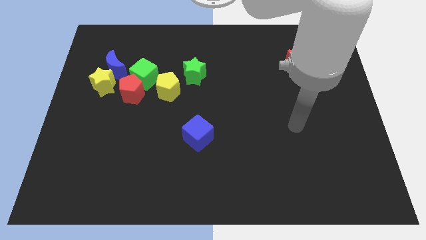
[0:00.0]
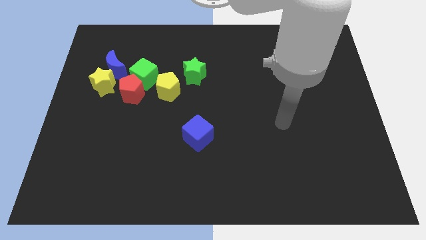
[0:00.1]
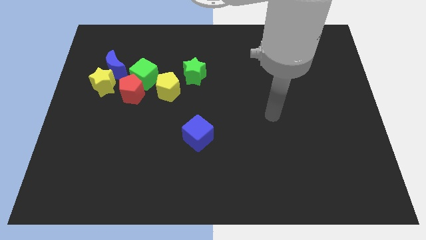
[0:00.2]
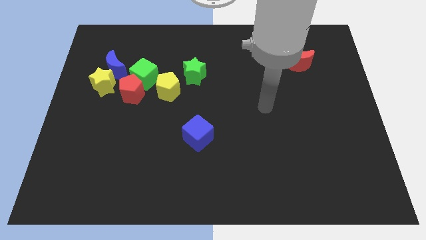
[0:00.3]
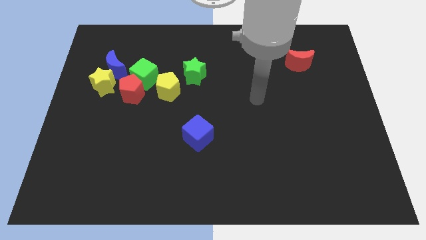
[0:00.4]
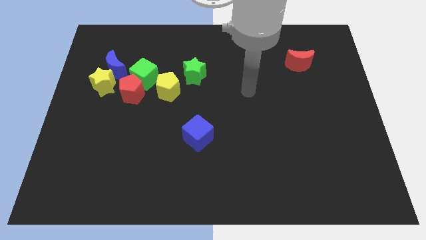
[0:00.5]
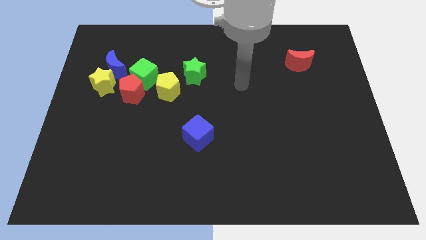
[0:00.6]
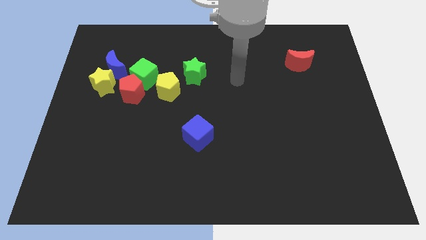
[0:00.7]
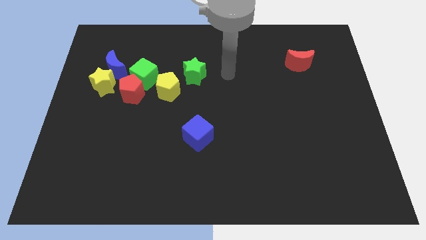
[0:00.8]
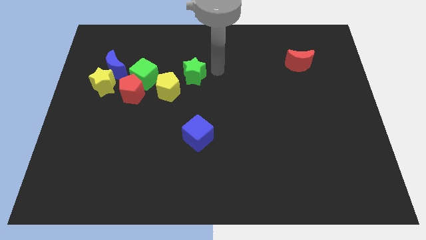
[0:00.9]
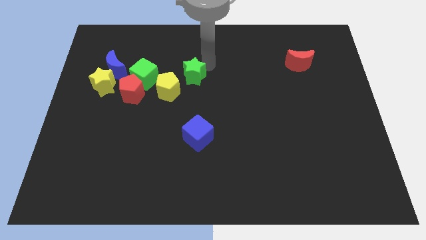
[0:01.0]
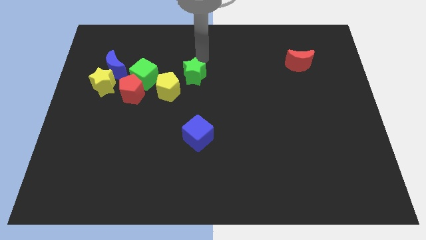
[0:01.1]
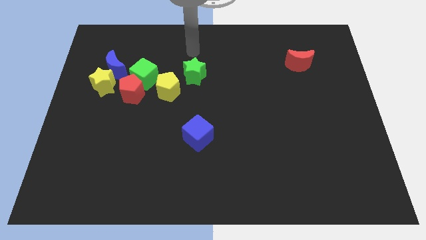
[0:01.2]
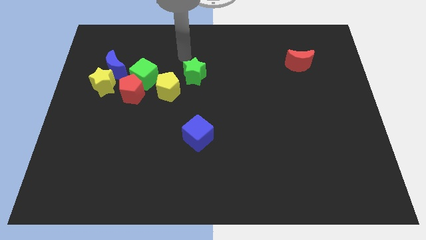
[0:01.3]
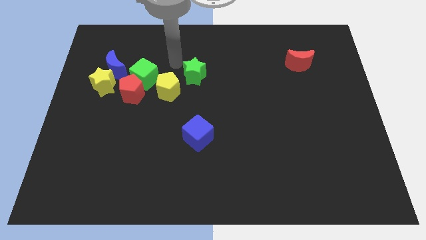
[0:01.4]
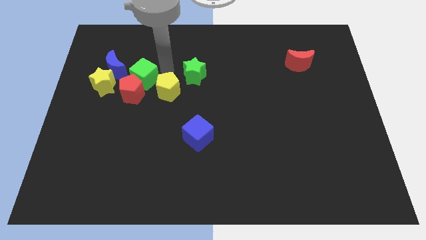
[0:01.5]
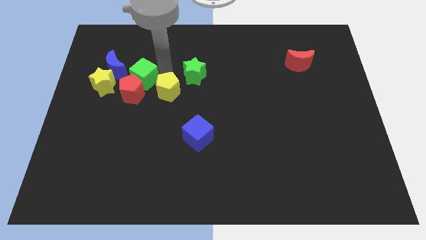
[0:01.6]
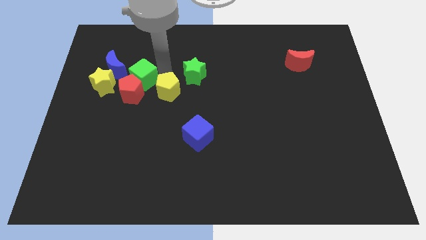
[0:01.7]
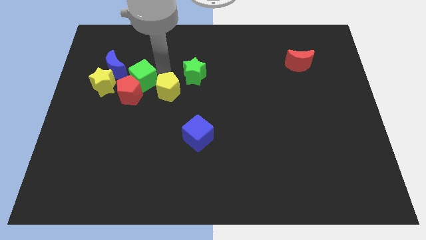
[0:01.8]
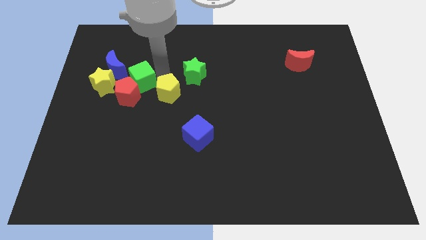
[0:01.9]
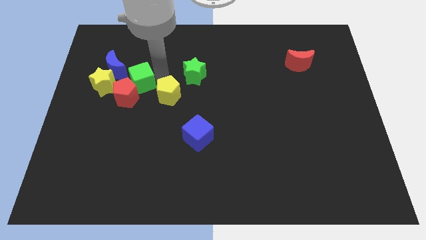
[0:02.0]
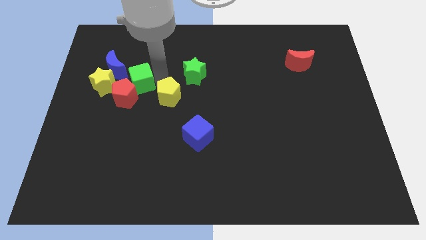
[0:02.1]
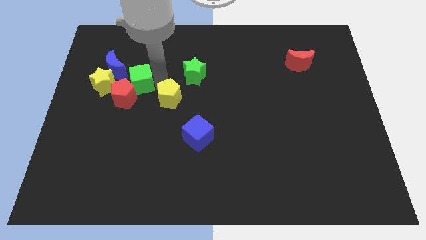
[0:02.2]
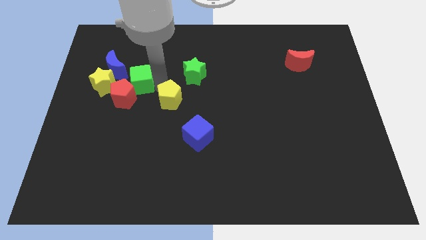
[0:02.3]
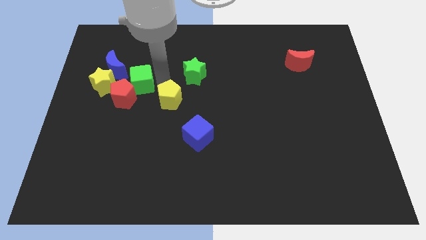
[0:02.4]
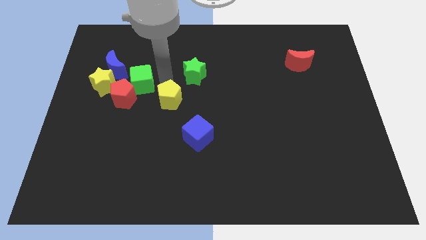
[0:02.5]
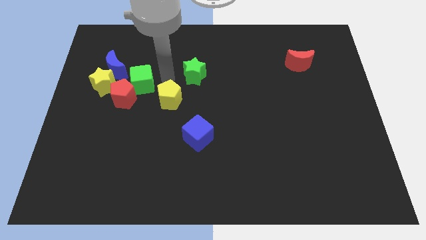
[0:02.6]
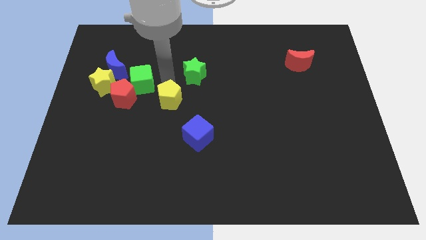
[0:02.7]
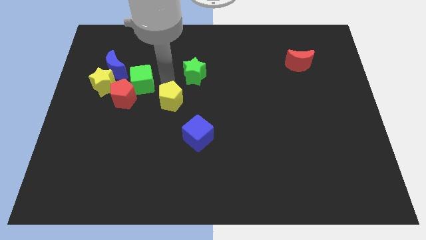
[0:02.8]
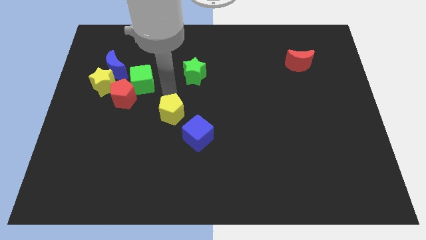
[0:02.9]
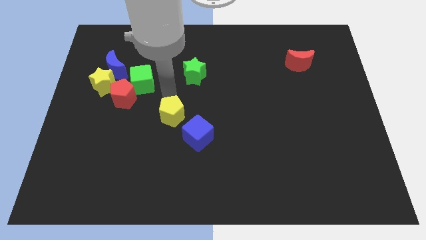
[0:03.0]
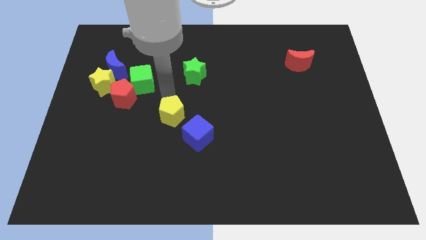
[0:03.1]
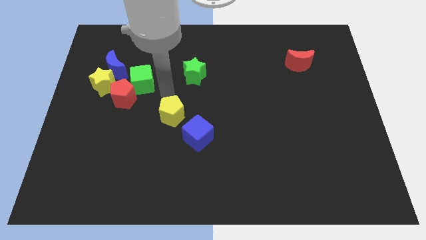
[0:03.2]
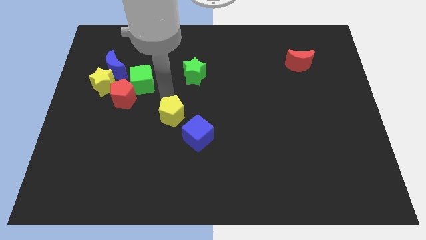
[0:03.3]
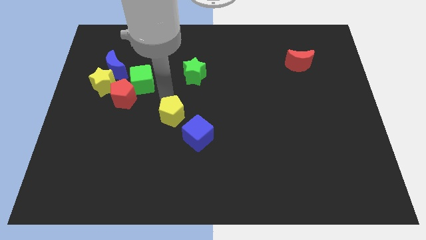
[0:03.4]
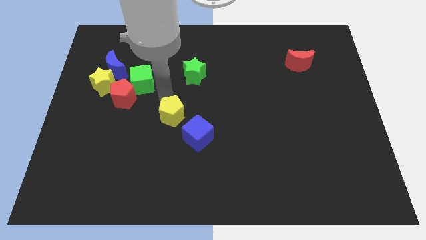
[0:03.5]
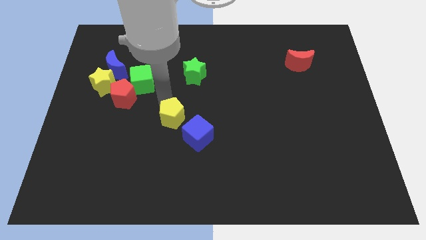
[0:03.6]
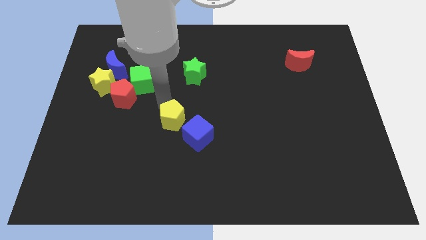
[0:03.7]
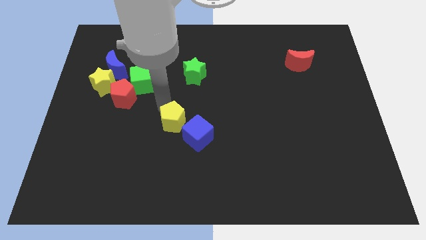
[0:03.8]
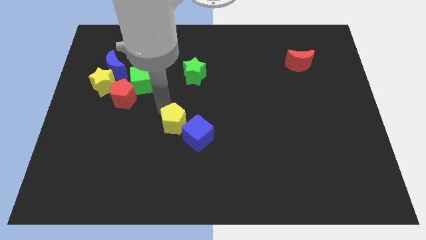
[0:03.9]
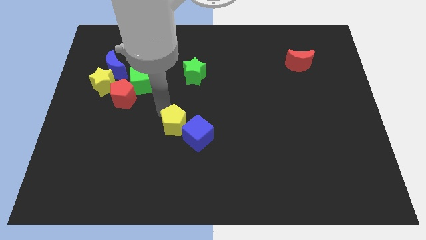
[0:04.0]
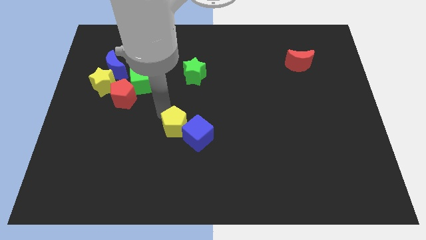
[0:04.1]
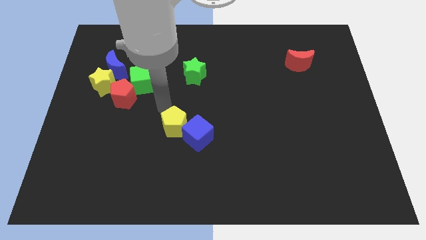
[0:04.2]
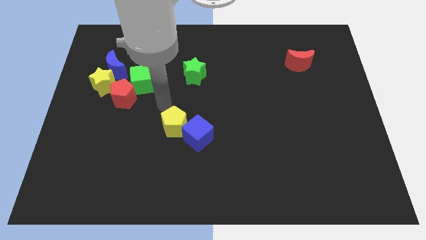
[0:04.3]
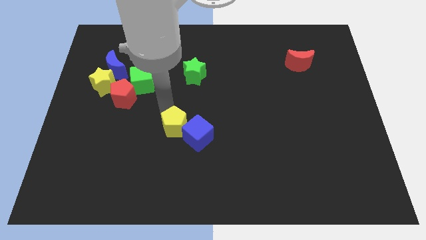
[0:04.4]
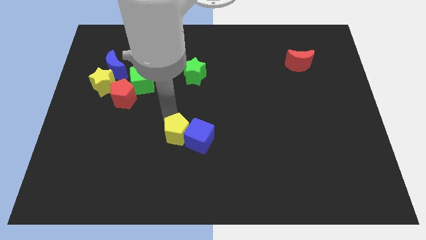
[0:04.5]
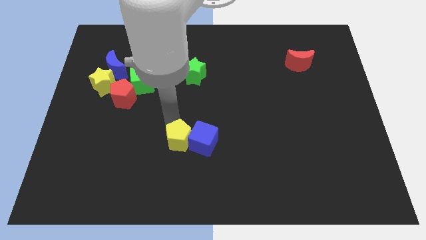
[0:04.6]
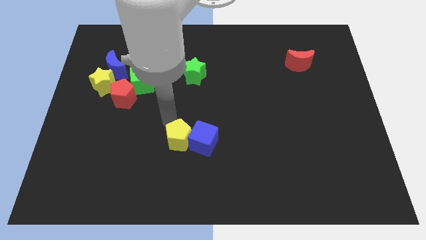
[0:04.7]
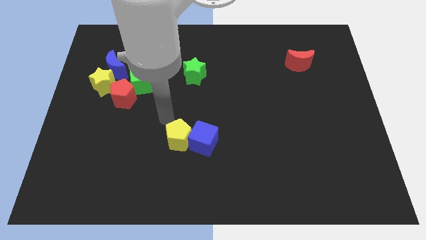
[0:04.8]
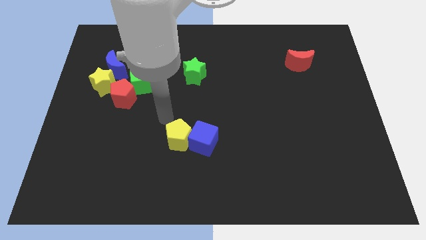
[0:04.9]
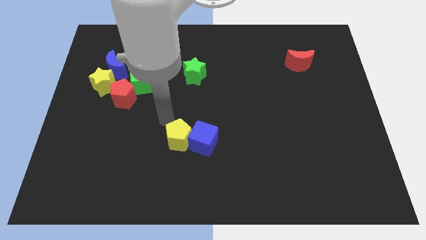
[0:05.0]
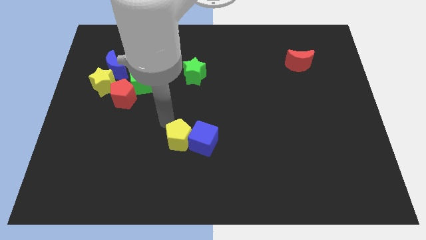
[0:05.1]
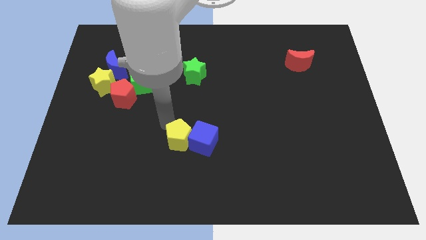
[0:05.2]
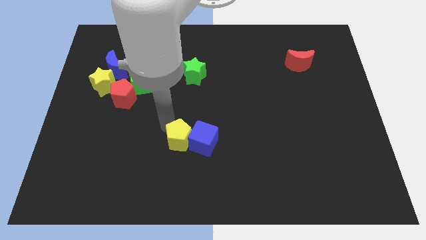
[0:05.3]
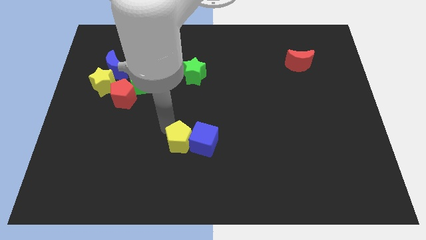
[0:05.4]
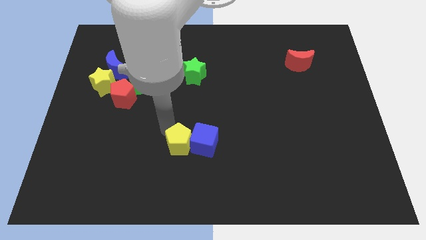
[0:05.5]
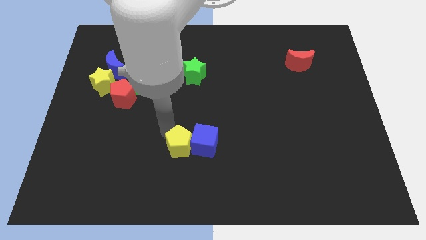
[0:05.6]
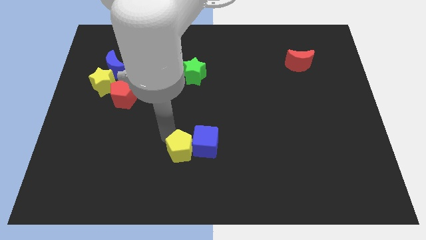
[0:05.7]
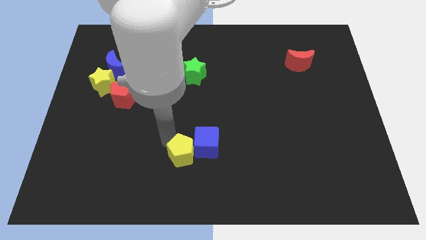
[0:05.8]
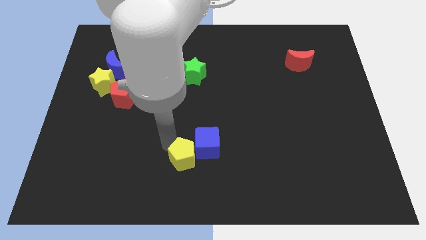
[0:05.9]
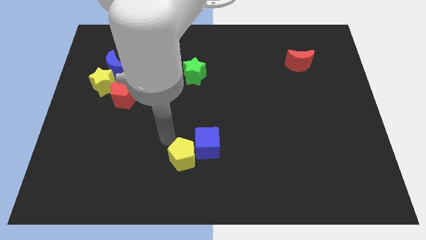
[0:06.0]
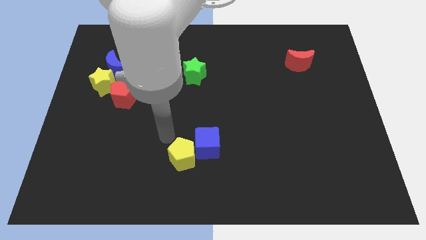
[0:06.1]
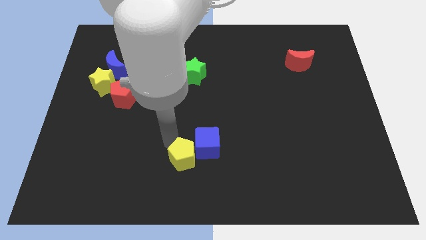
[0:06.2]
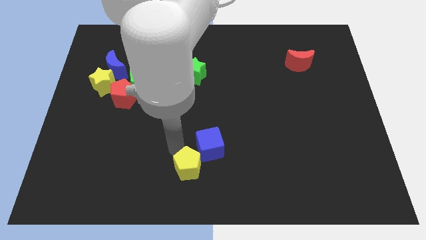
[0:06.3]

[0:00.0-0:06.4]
push the yellow pentagon to the bottom of the blue cube

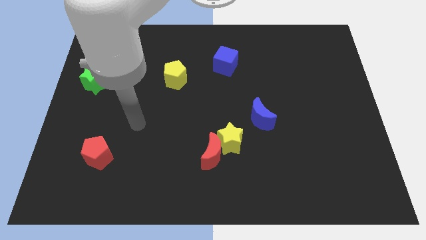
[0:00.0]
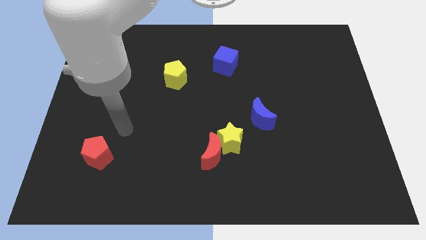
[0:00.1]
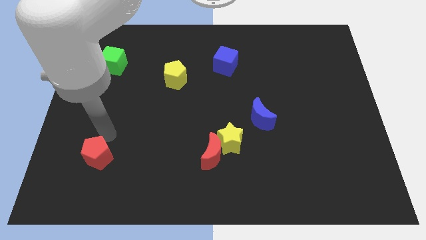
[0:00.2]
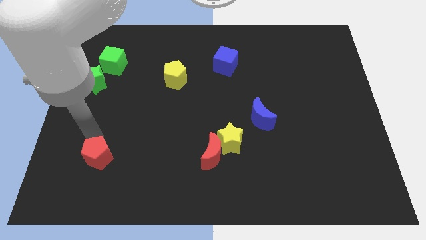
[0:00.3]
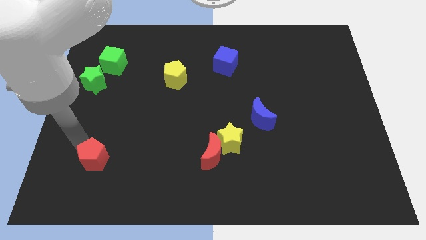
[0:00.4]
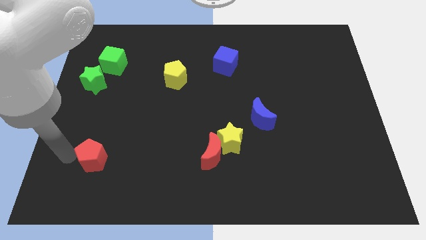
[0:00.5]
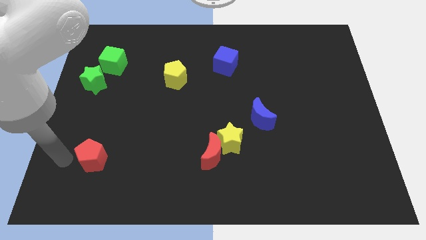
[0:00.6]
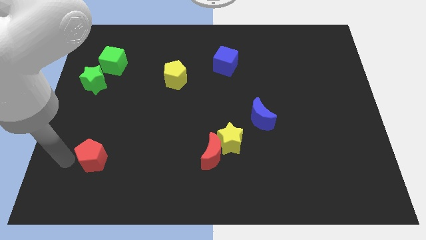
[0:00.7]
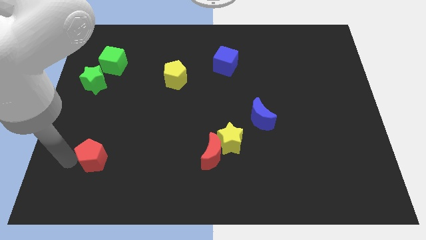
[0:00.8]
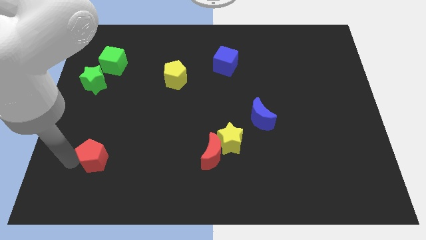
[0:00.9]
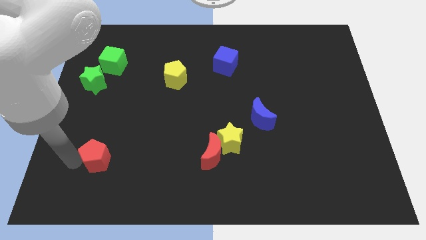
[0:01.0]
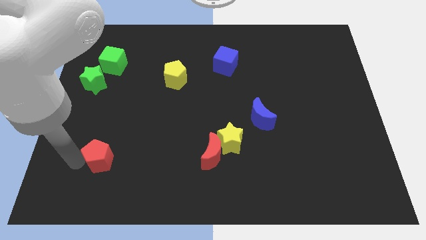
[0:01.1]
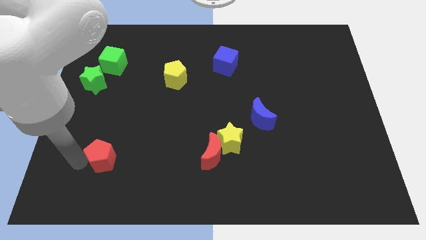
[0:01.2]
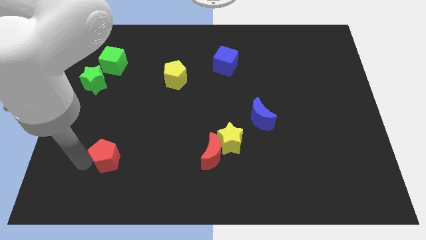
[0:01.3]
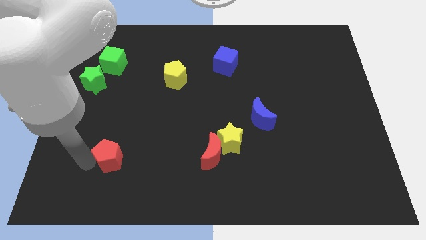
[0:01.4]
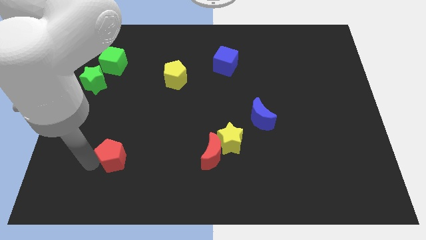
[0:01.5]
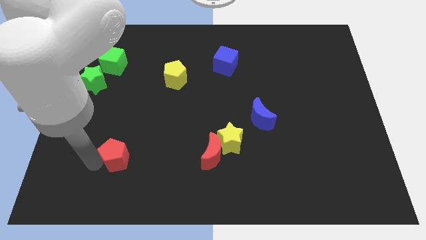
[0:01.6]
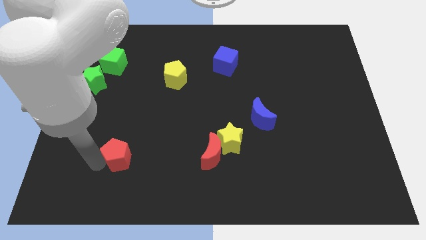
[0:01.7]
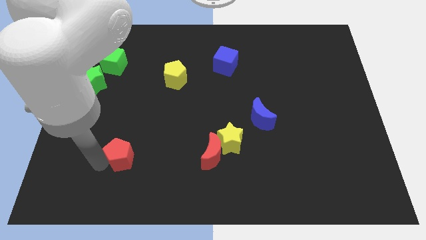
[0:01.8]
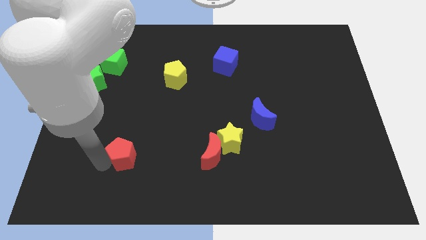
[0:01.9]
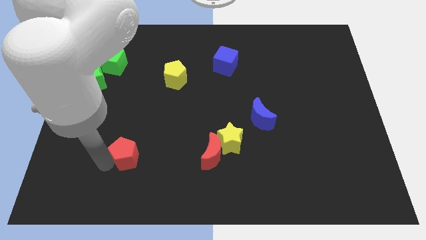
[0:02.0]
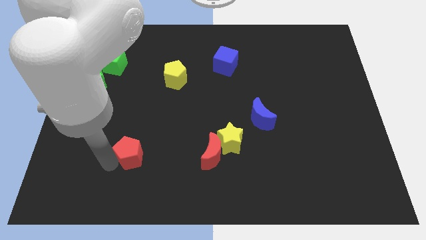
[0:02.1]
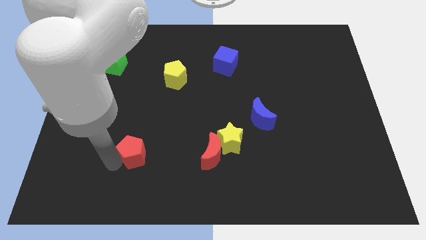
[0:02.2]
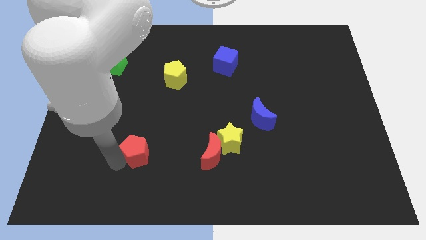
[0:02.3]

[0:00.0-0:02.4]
move the red pentagon to the left side of the red moon
